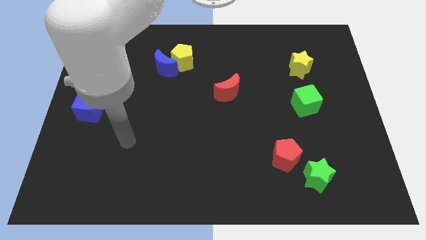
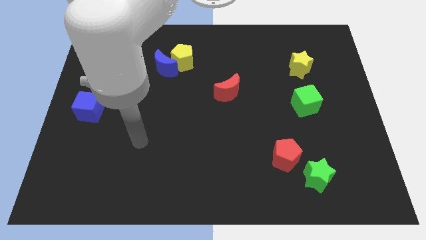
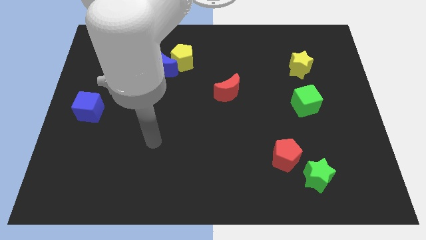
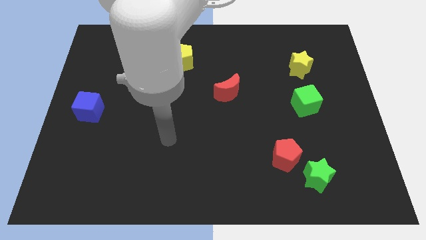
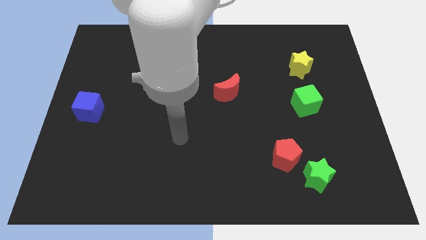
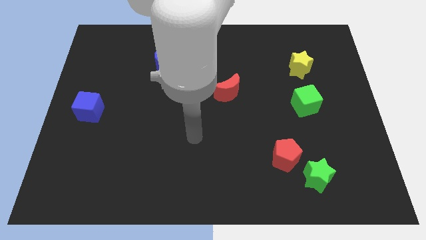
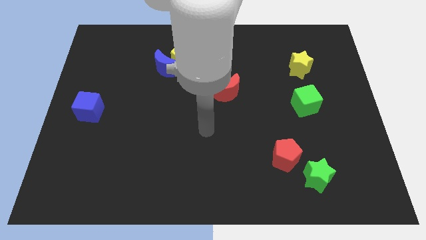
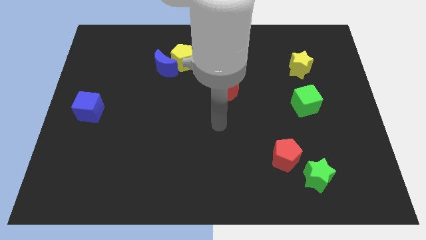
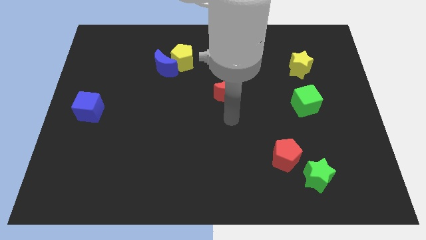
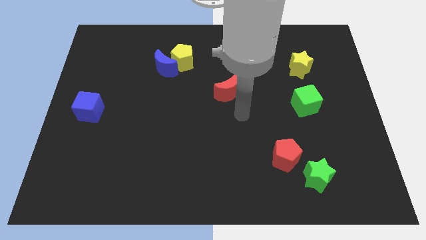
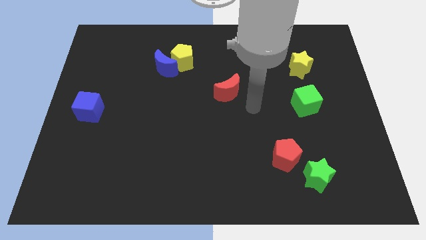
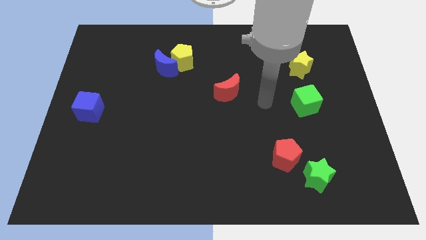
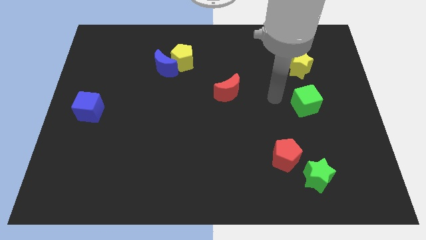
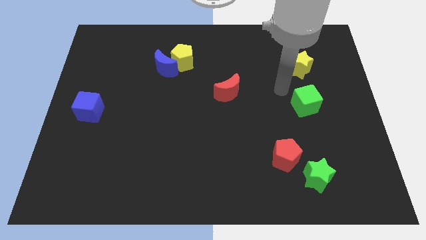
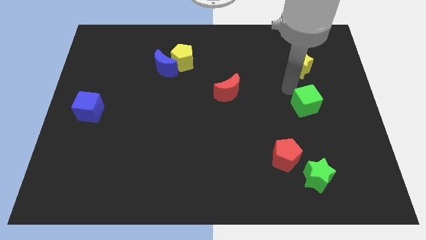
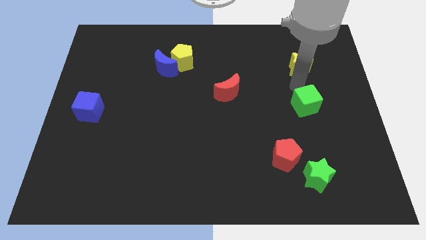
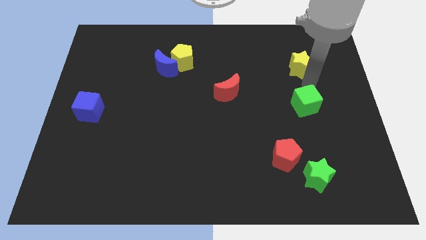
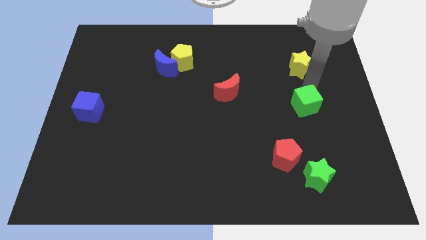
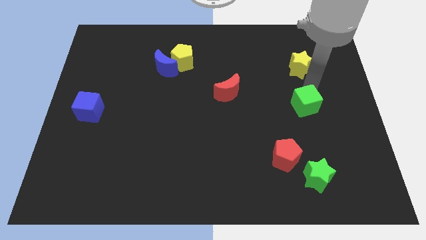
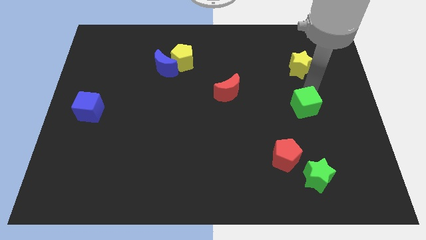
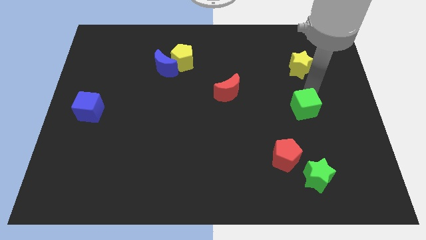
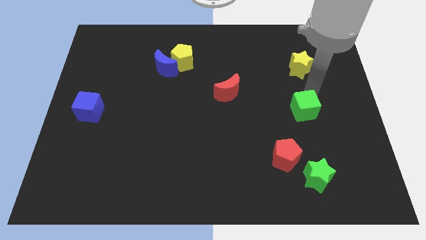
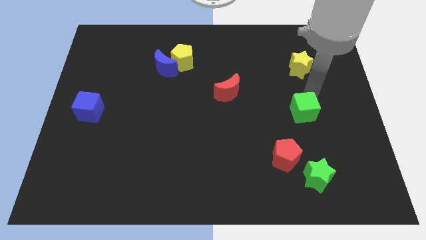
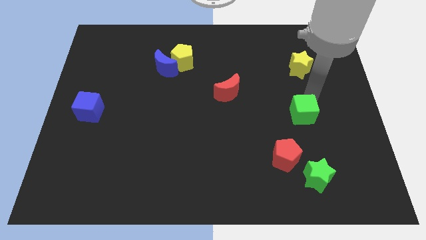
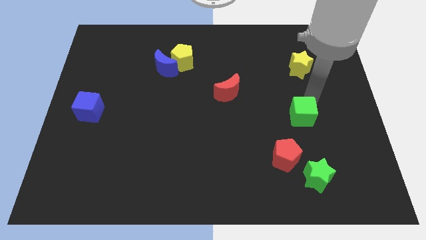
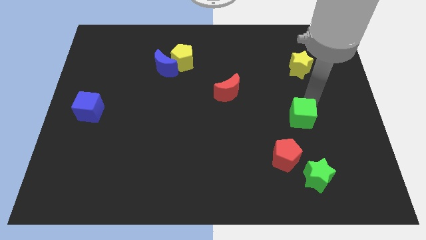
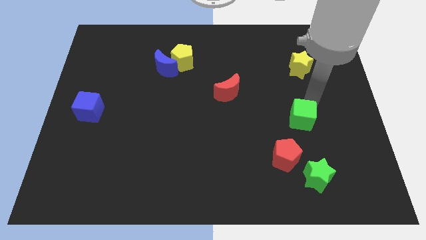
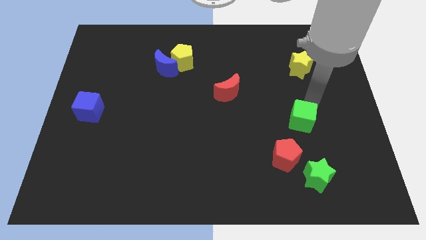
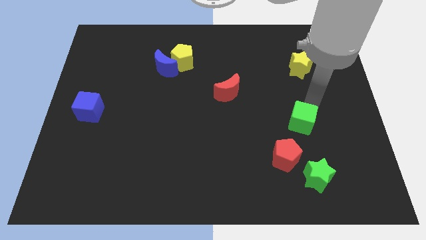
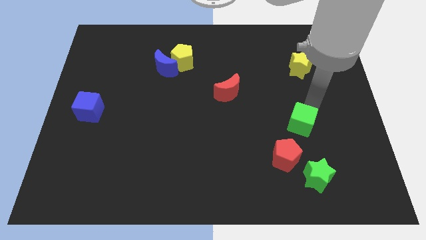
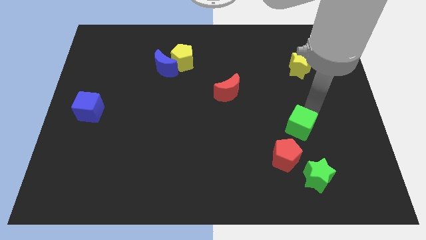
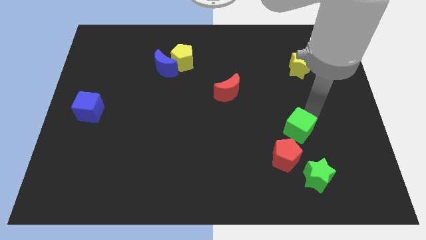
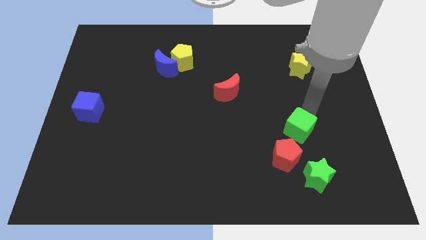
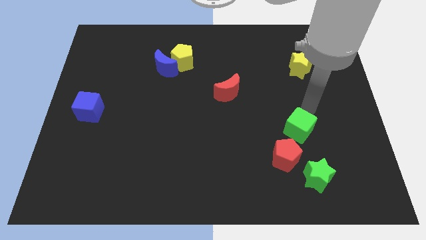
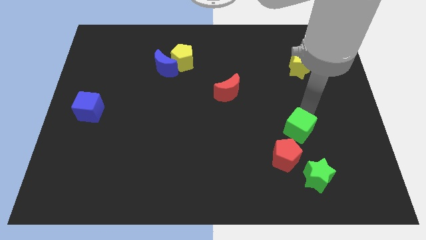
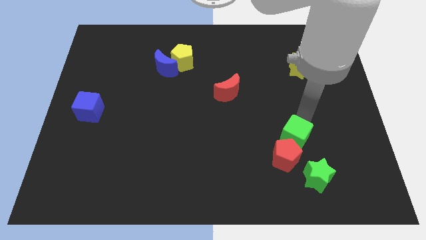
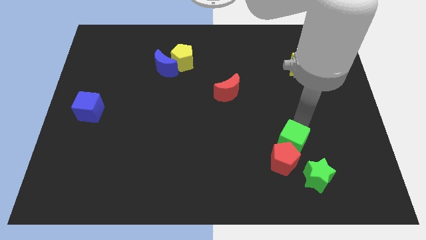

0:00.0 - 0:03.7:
put the green cube next to the red pentagon

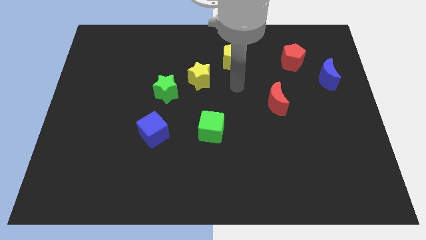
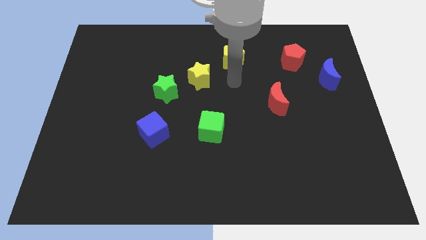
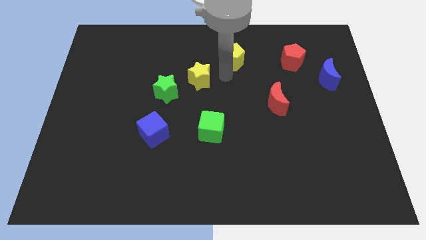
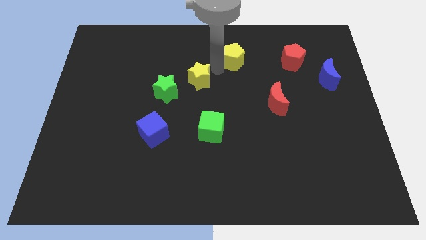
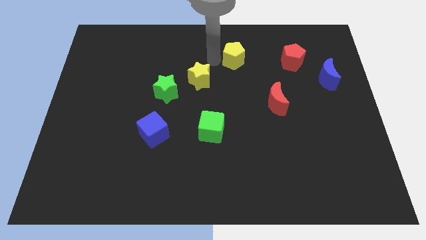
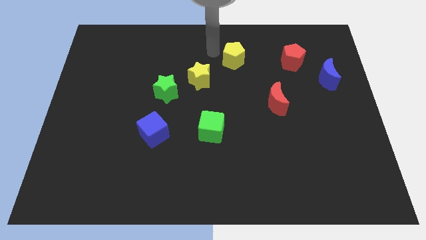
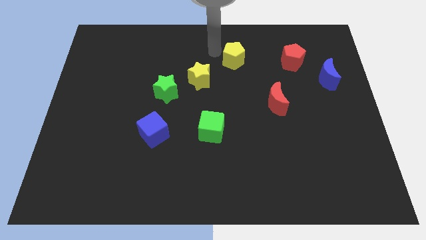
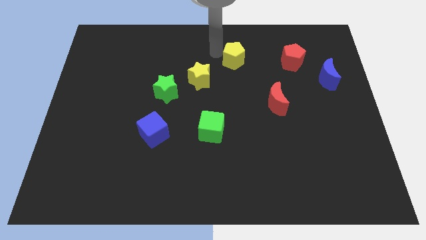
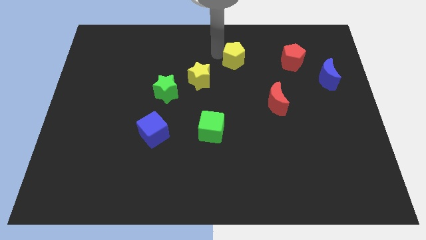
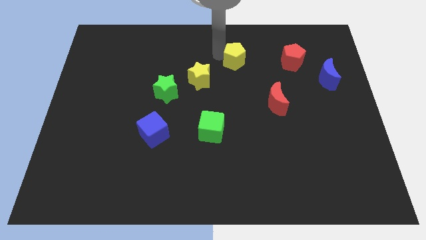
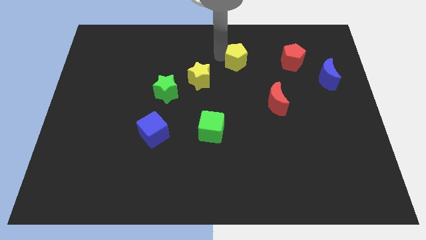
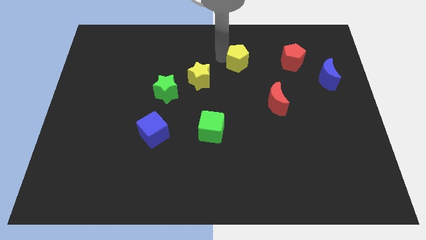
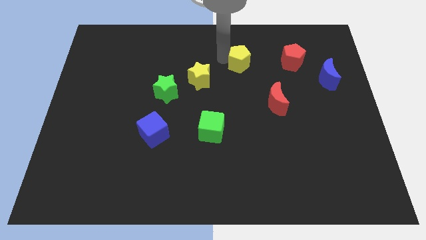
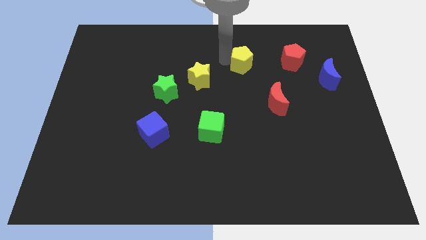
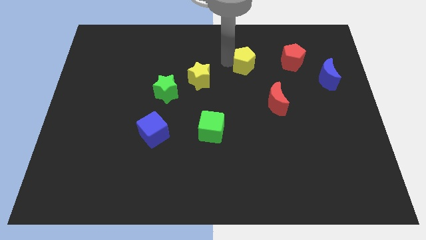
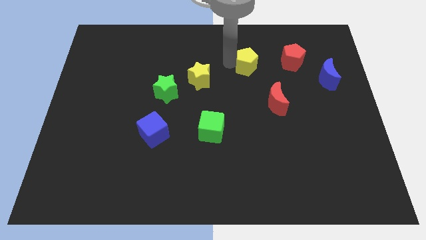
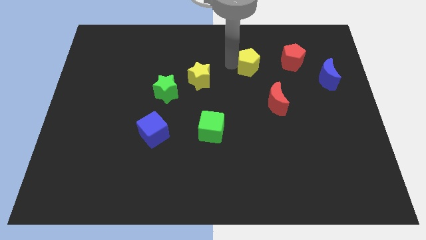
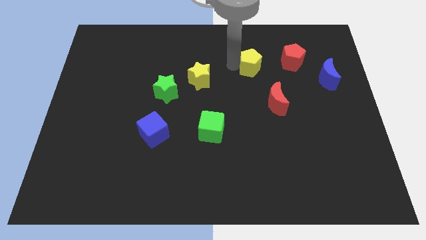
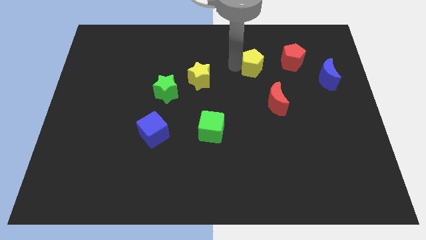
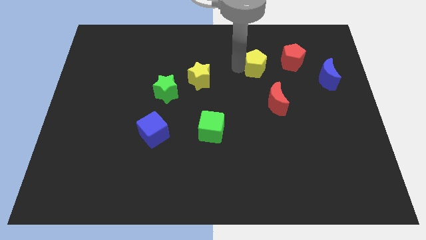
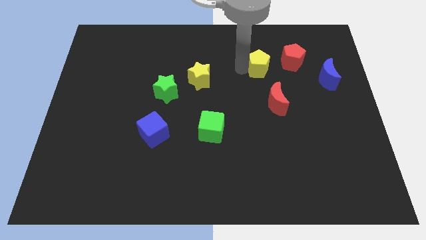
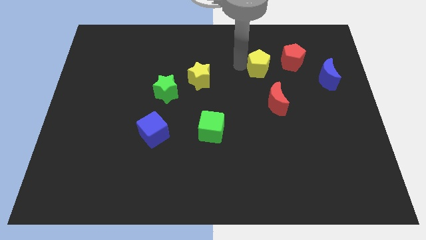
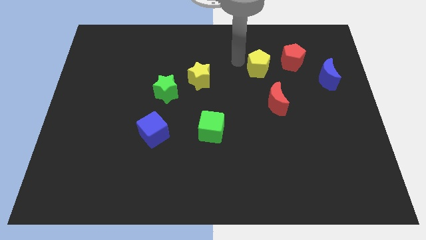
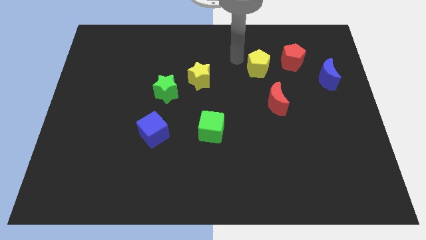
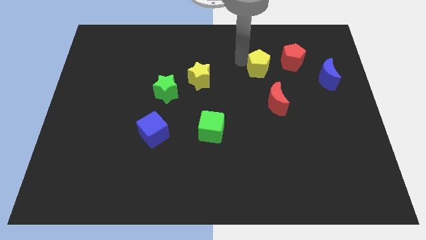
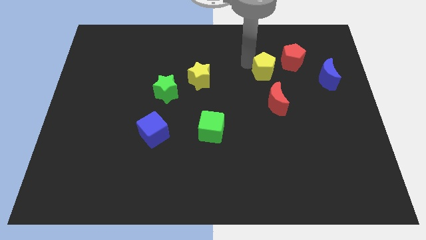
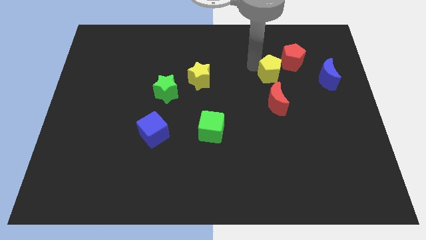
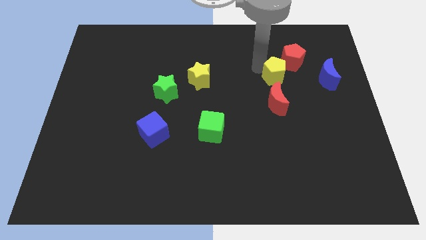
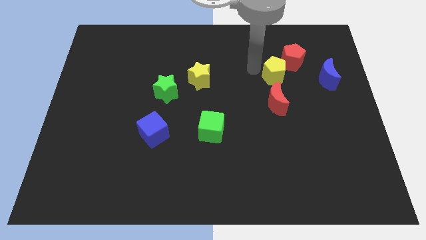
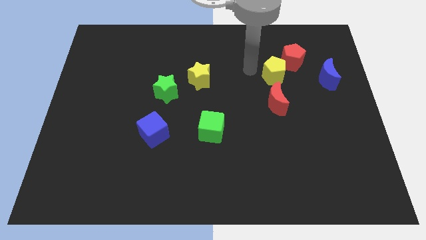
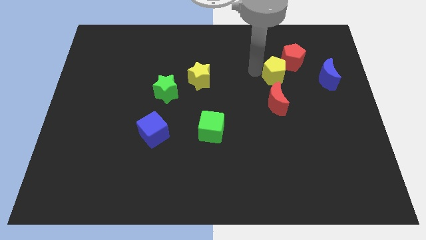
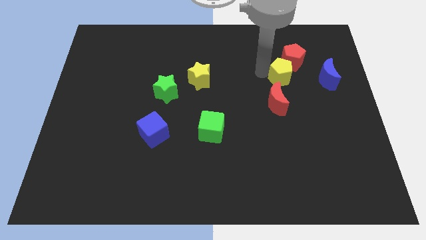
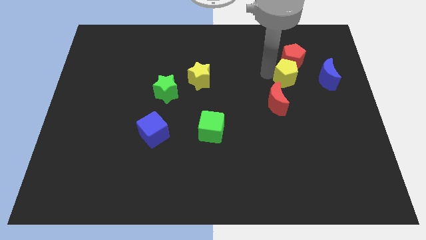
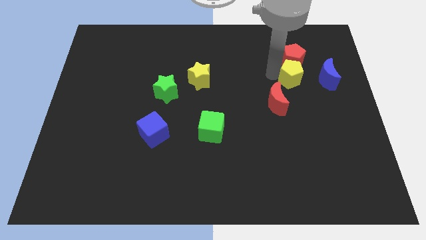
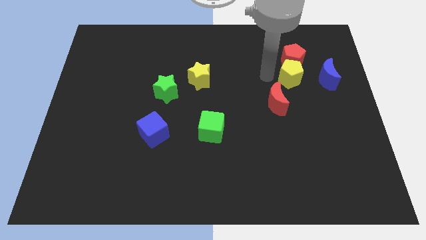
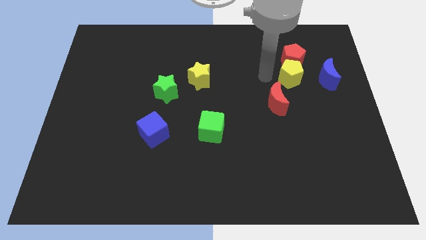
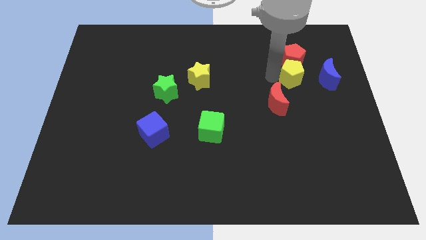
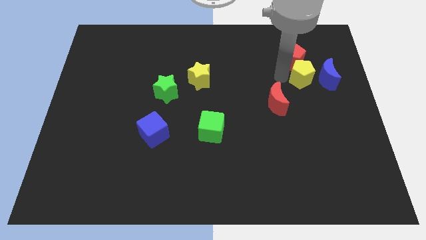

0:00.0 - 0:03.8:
slide the yellow pentagon close to the blue moon

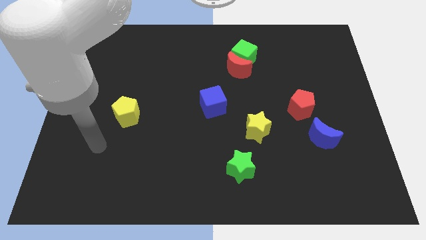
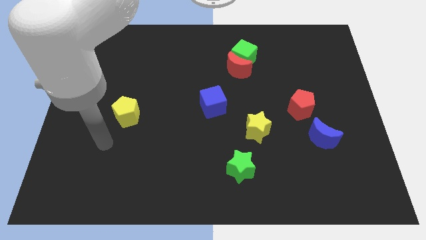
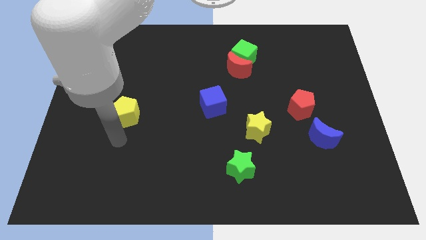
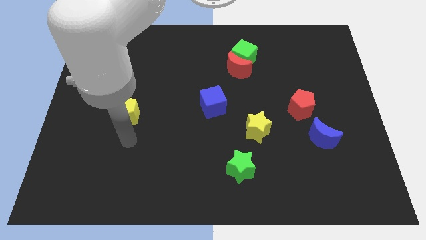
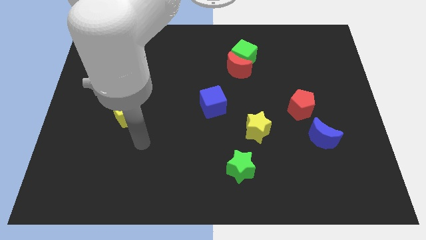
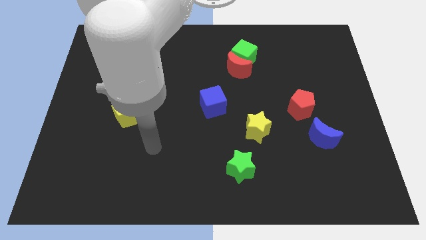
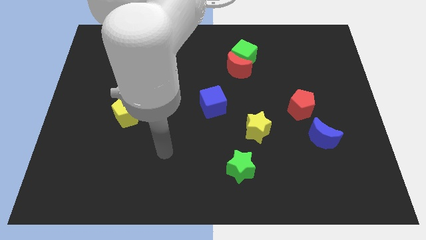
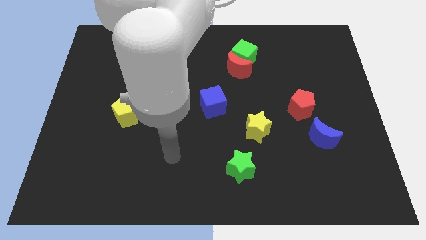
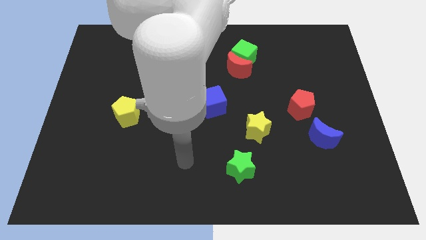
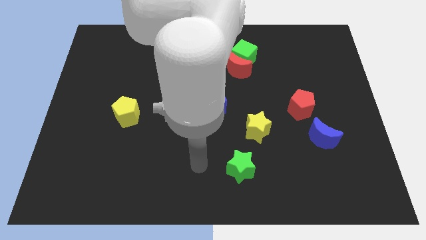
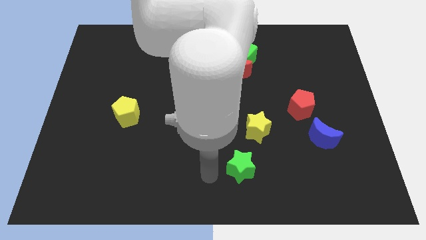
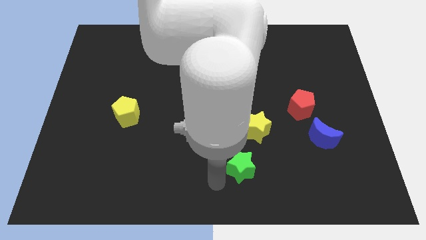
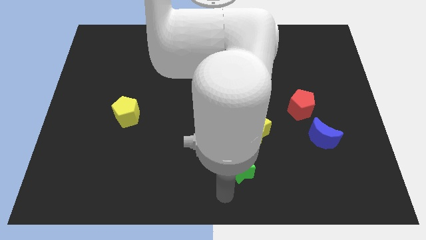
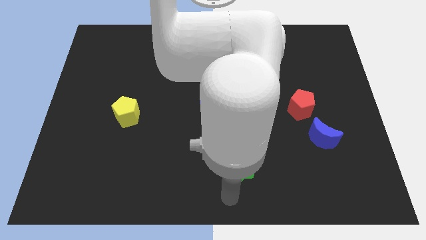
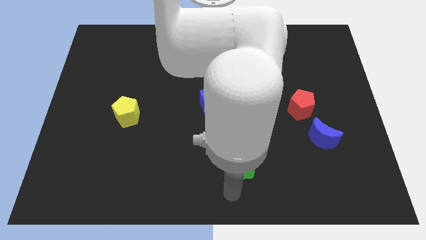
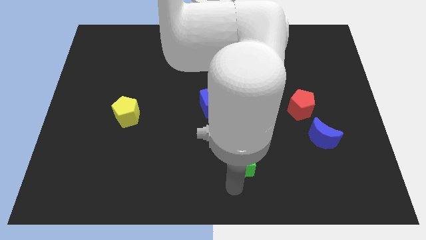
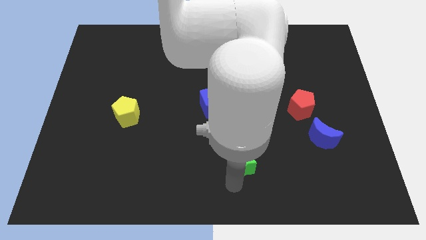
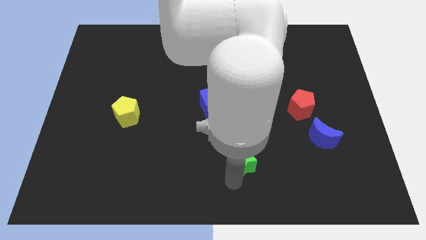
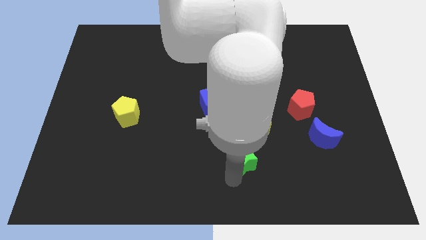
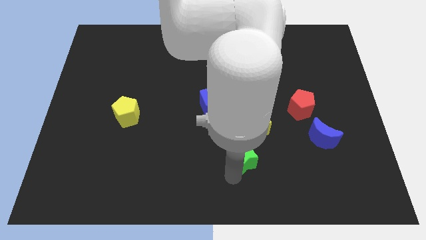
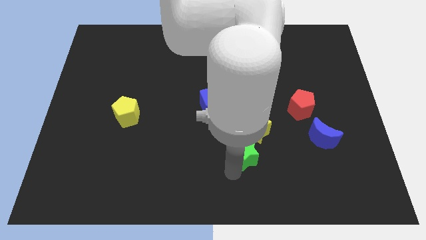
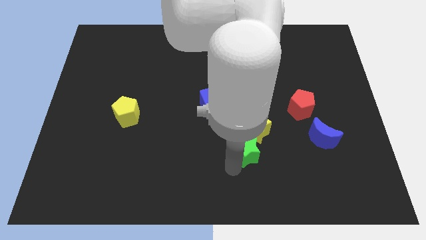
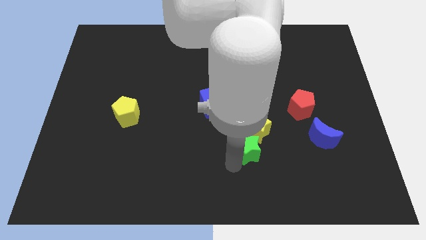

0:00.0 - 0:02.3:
slide the green star close to the yellow star
